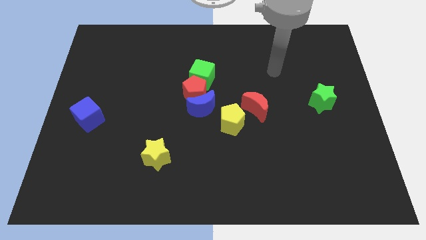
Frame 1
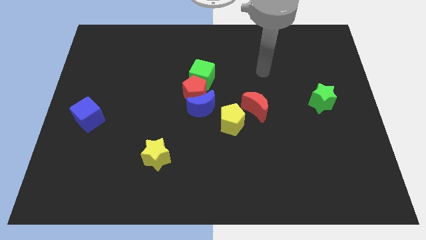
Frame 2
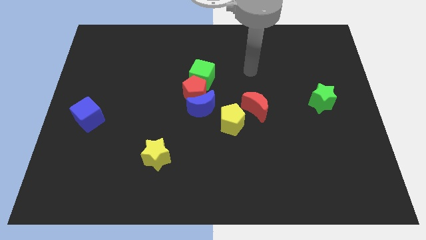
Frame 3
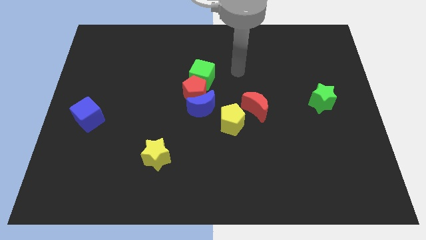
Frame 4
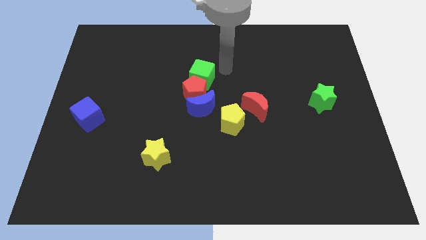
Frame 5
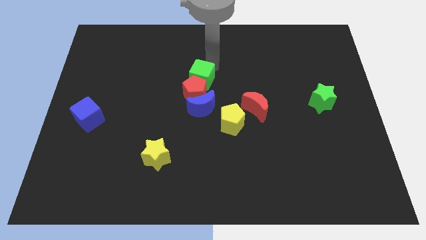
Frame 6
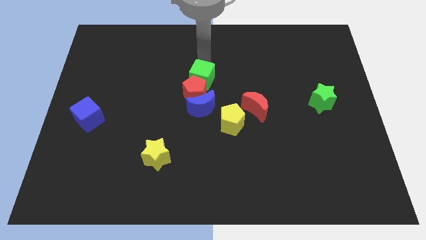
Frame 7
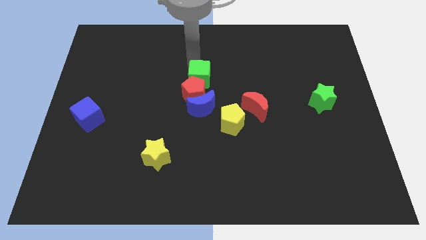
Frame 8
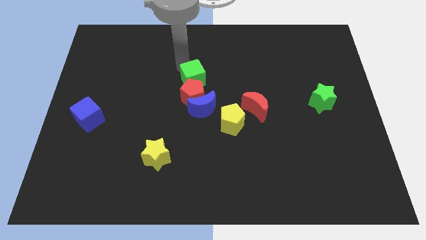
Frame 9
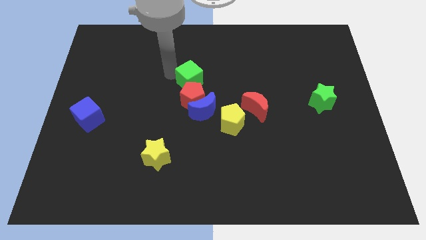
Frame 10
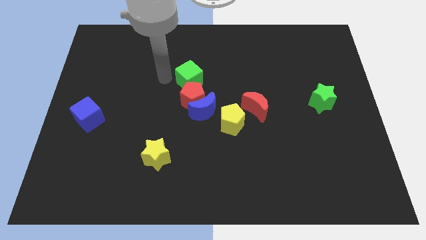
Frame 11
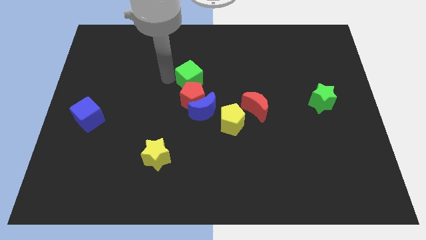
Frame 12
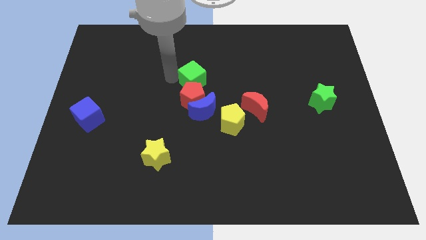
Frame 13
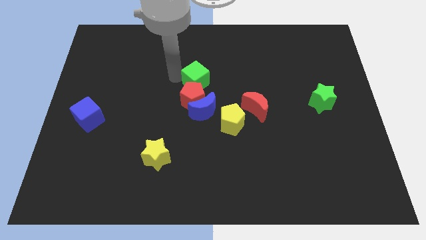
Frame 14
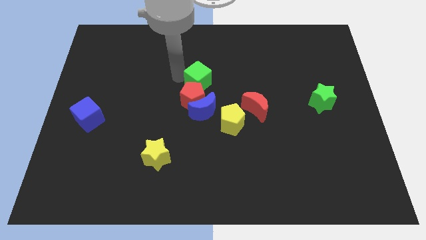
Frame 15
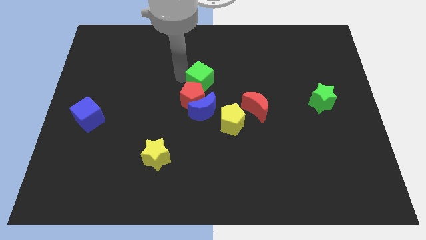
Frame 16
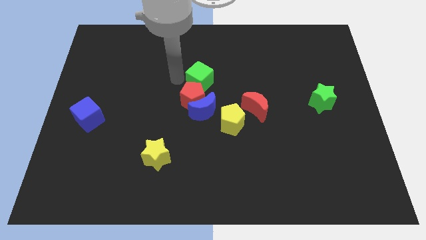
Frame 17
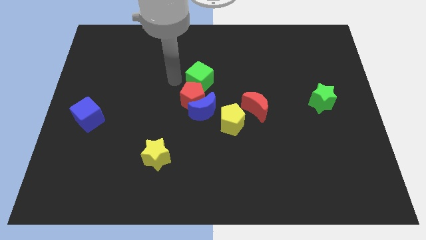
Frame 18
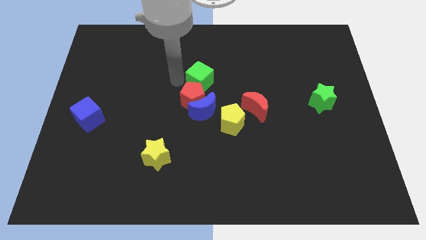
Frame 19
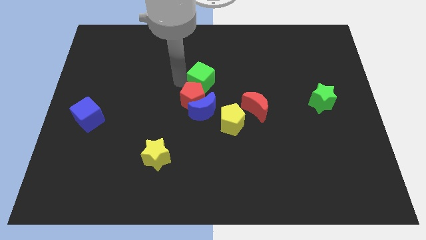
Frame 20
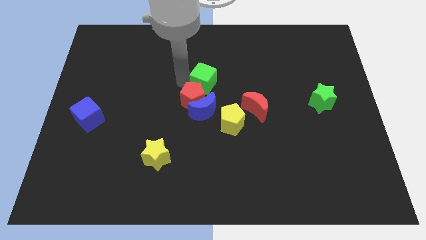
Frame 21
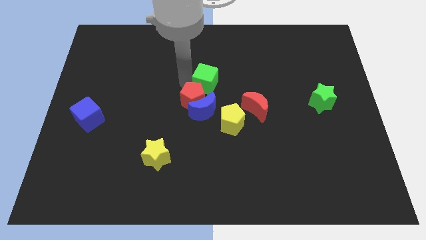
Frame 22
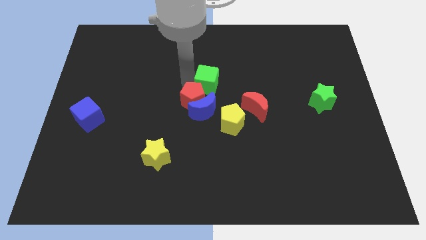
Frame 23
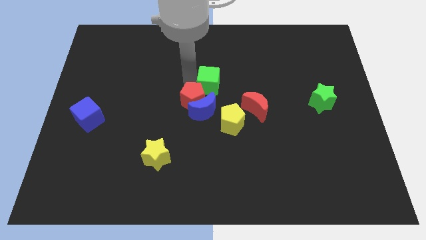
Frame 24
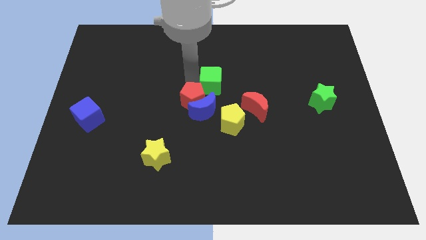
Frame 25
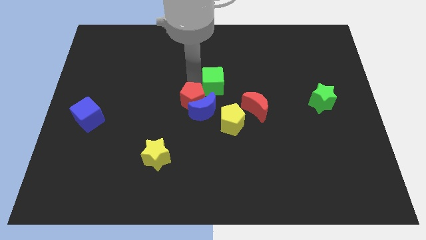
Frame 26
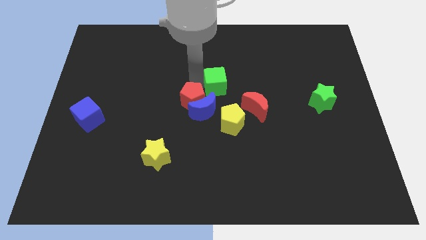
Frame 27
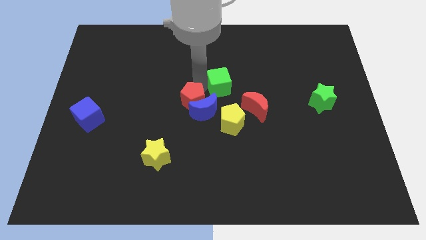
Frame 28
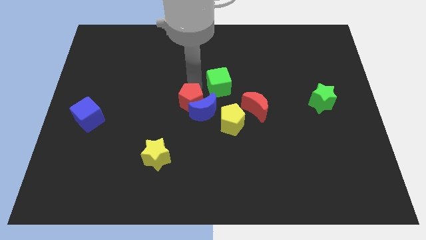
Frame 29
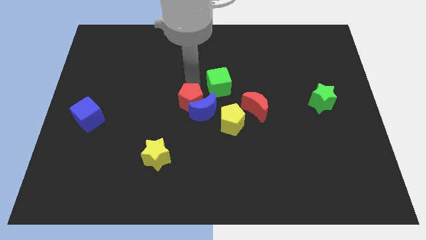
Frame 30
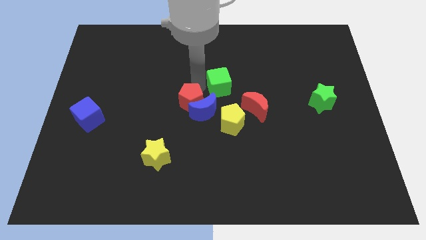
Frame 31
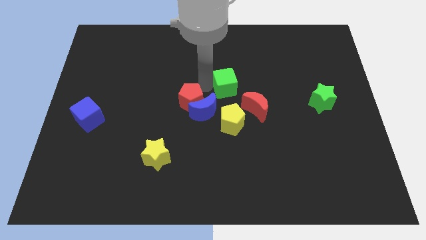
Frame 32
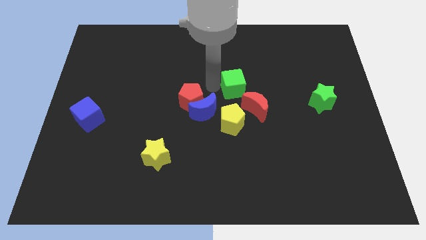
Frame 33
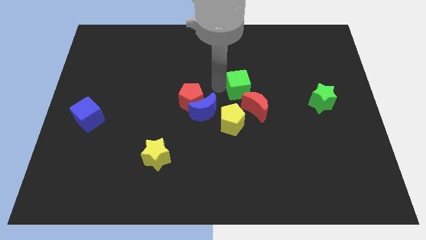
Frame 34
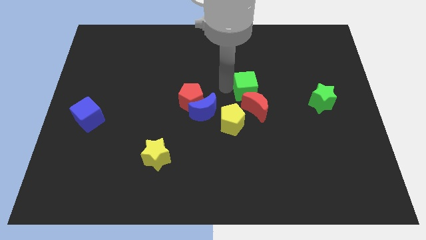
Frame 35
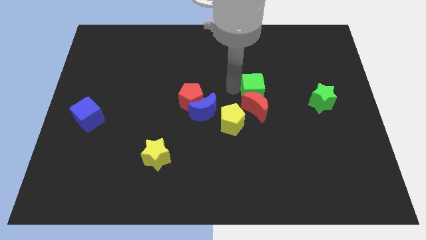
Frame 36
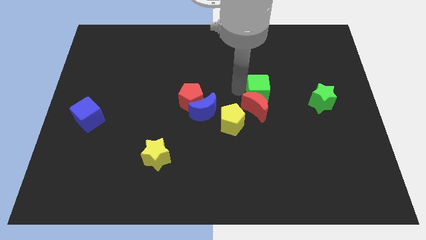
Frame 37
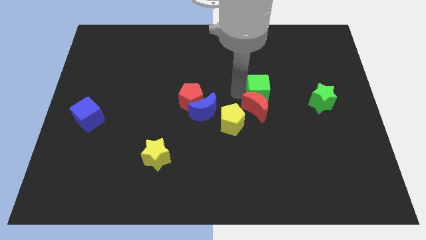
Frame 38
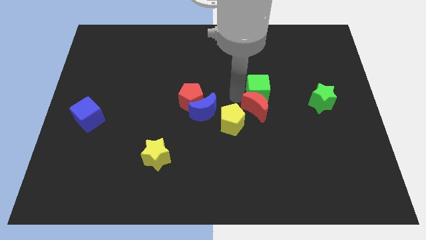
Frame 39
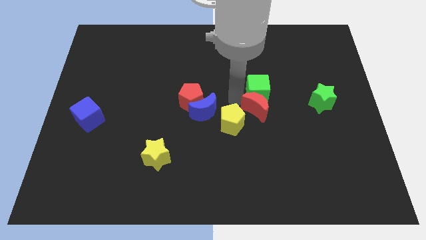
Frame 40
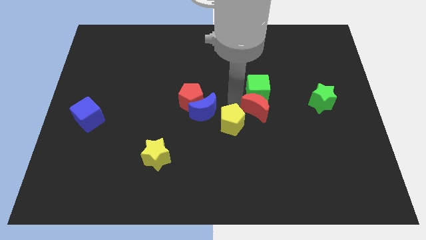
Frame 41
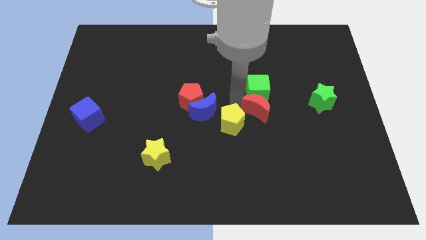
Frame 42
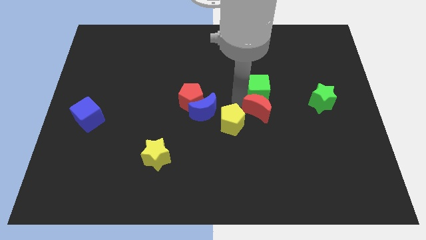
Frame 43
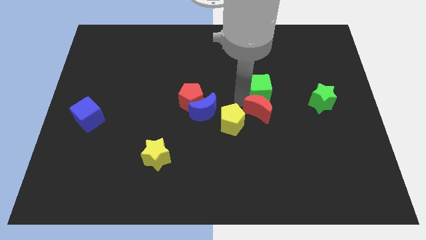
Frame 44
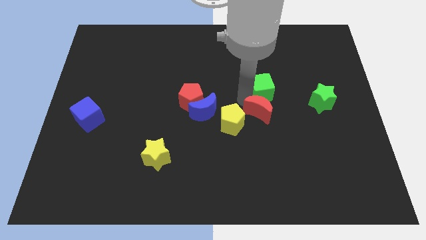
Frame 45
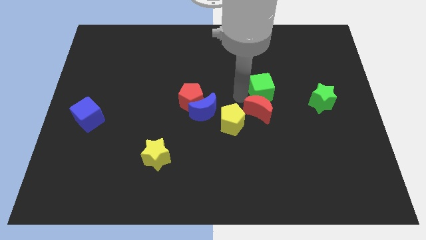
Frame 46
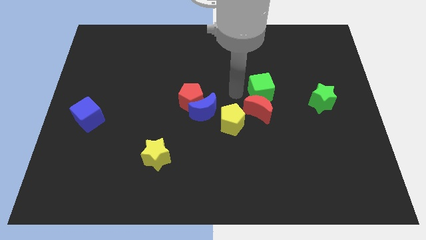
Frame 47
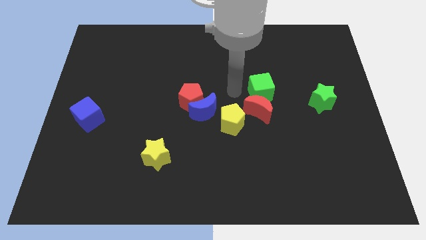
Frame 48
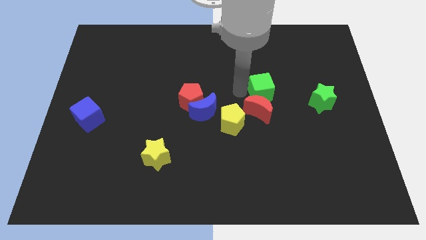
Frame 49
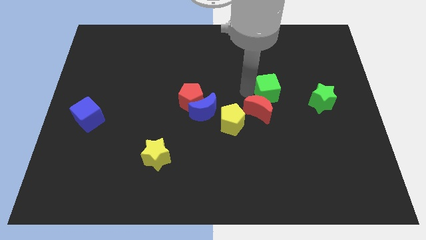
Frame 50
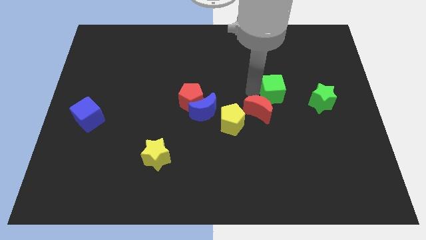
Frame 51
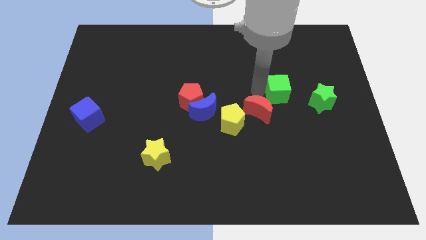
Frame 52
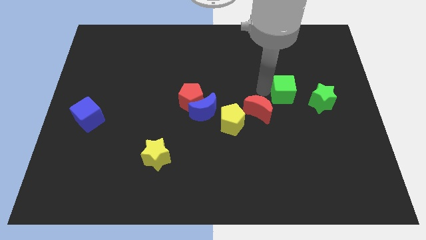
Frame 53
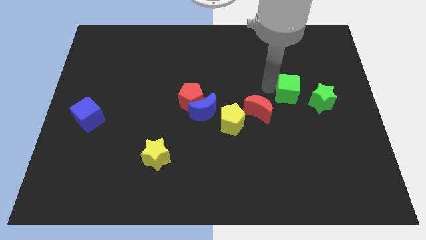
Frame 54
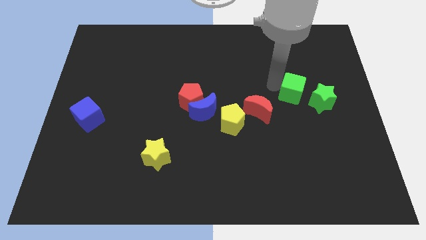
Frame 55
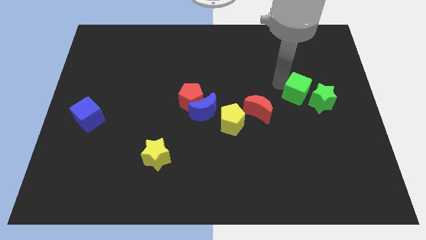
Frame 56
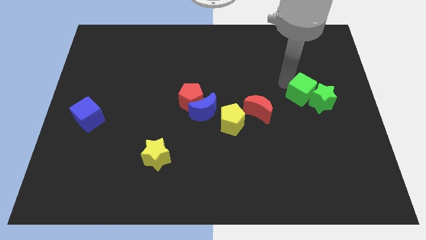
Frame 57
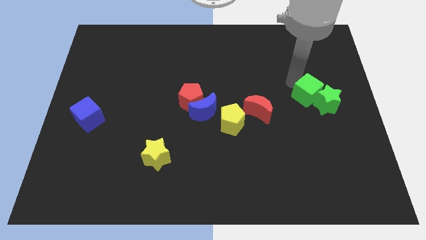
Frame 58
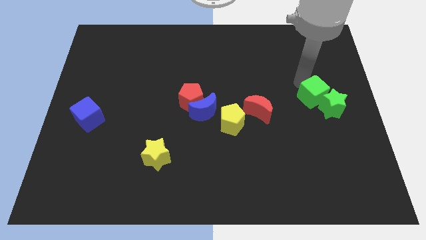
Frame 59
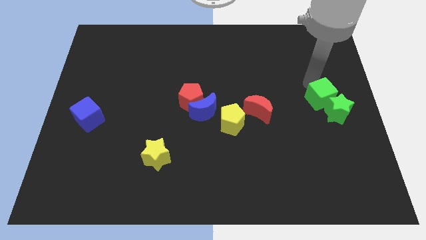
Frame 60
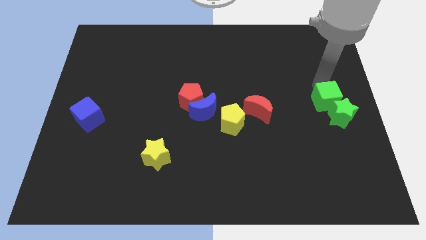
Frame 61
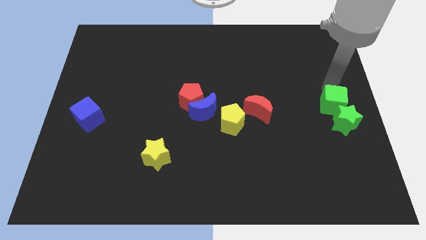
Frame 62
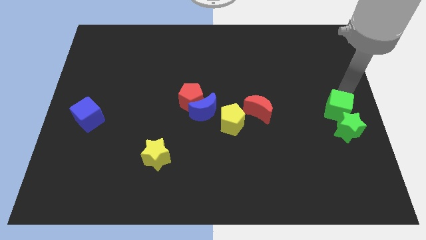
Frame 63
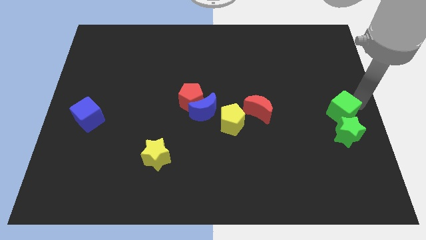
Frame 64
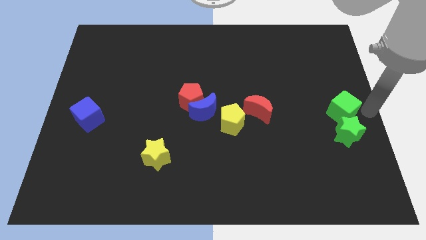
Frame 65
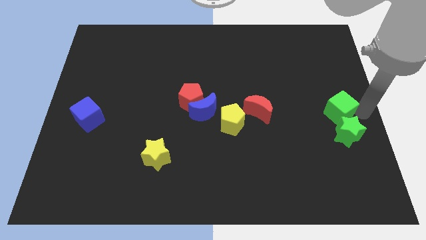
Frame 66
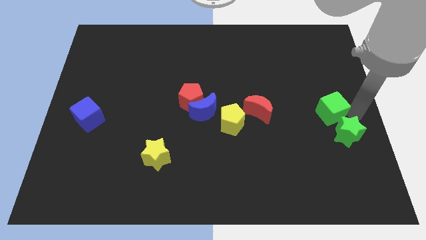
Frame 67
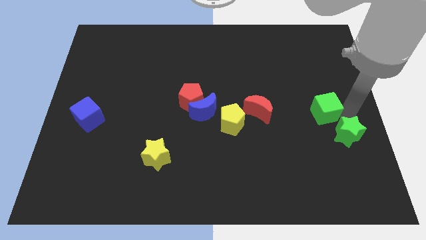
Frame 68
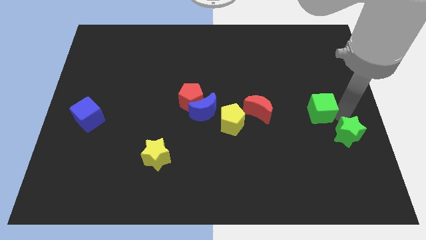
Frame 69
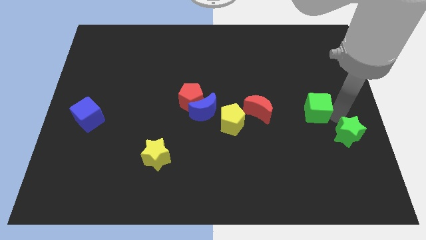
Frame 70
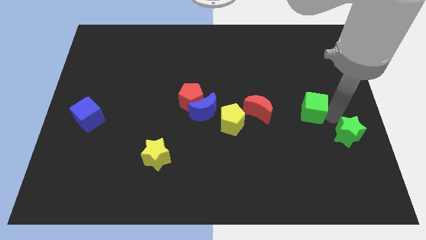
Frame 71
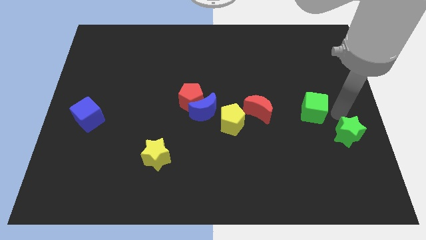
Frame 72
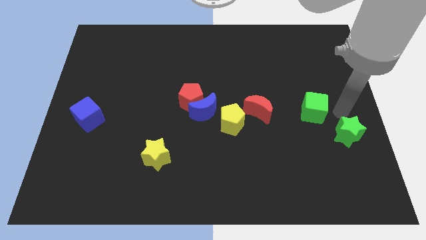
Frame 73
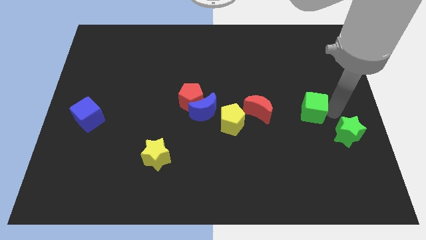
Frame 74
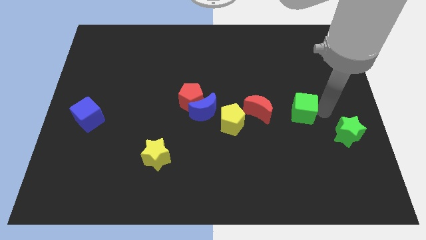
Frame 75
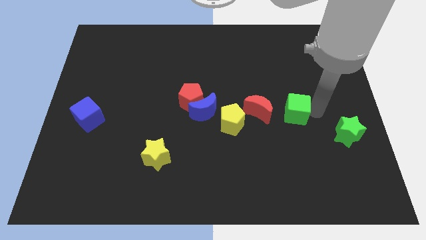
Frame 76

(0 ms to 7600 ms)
put the green cube just right of the yellow pentagon
